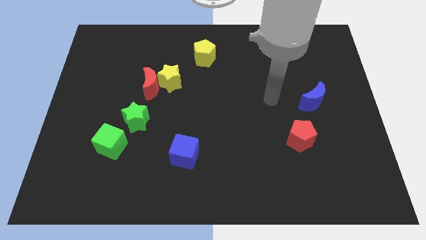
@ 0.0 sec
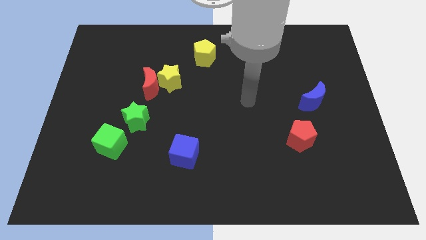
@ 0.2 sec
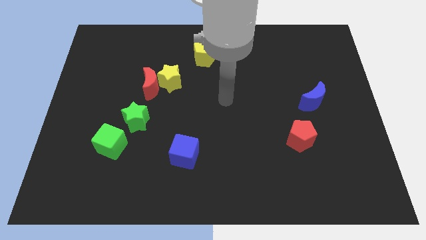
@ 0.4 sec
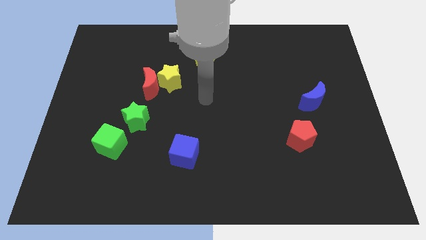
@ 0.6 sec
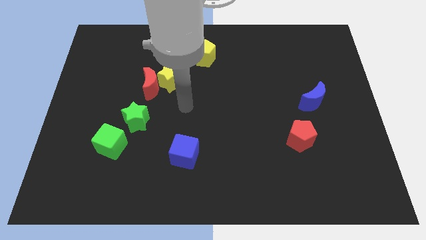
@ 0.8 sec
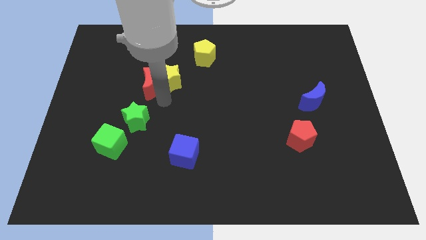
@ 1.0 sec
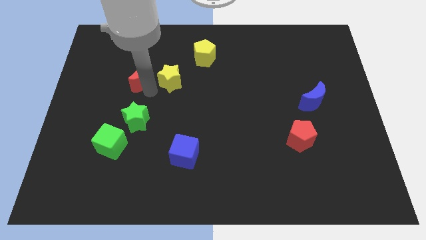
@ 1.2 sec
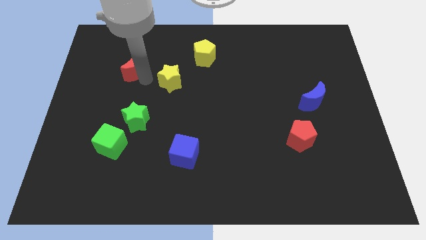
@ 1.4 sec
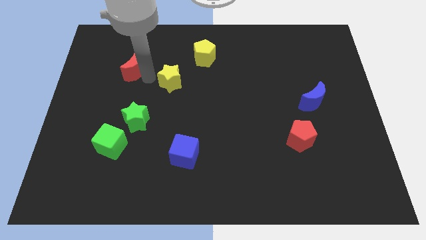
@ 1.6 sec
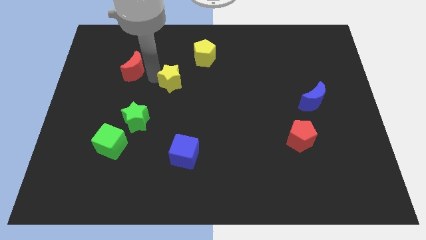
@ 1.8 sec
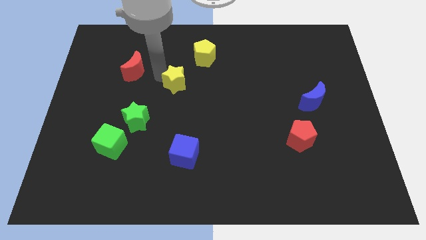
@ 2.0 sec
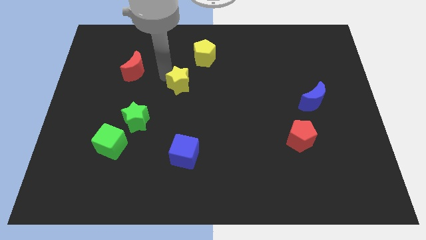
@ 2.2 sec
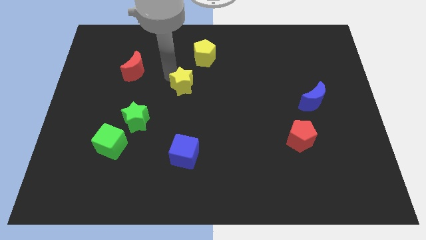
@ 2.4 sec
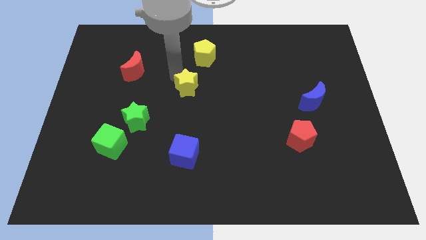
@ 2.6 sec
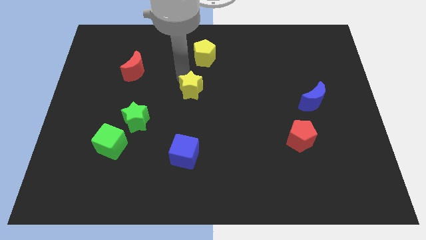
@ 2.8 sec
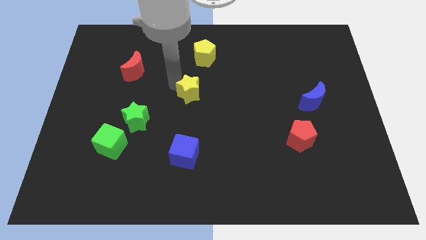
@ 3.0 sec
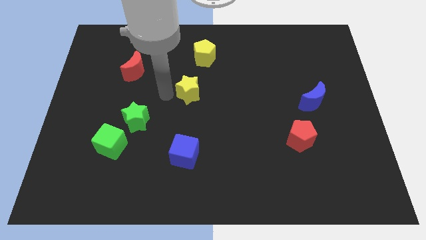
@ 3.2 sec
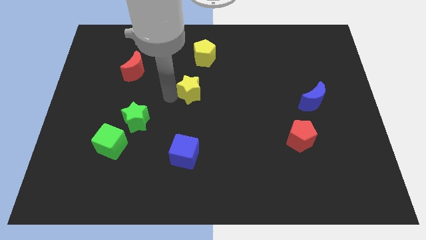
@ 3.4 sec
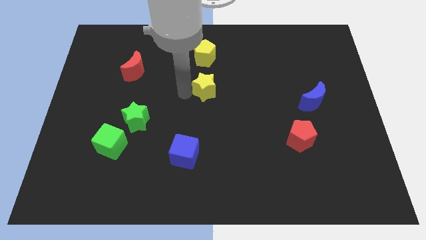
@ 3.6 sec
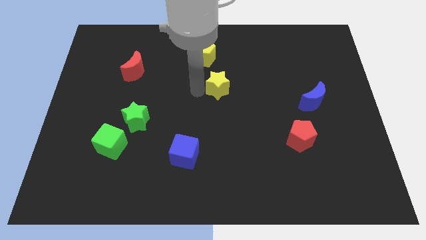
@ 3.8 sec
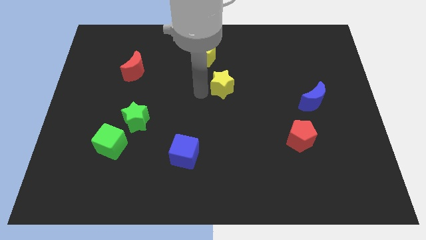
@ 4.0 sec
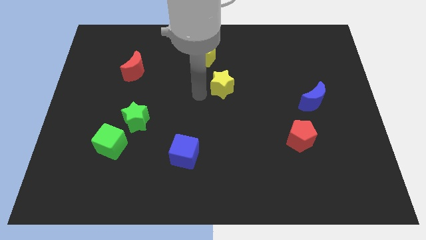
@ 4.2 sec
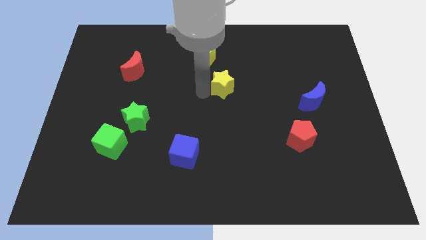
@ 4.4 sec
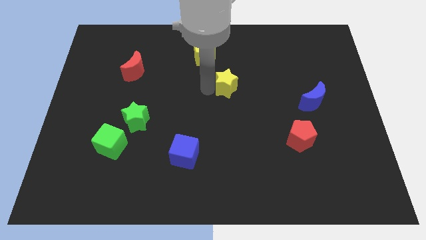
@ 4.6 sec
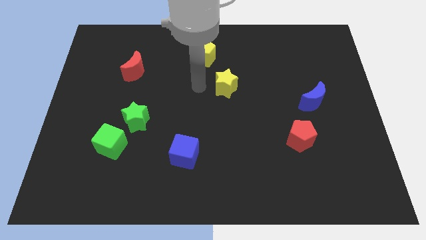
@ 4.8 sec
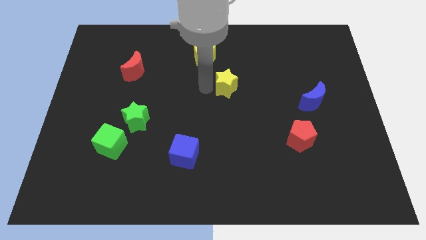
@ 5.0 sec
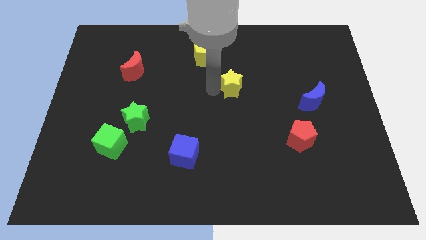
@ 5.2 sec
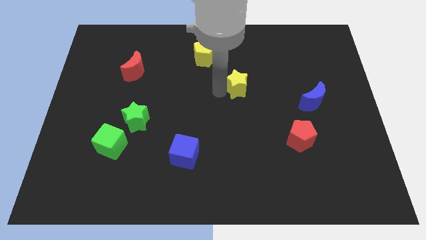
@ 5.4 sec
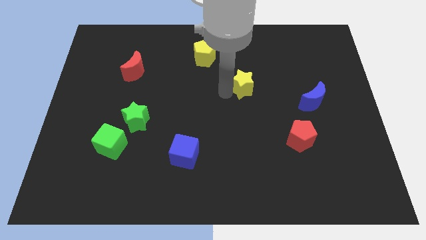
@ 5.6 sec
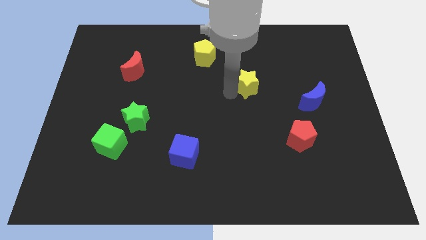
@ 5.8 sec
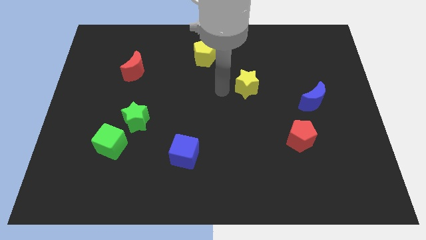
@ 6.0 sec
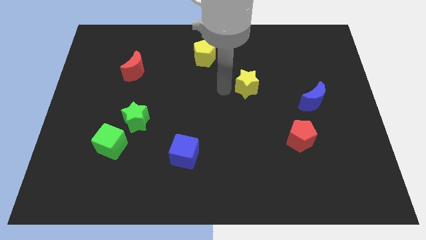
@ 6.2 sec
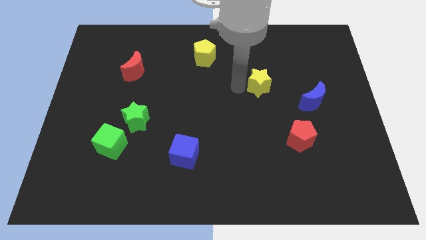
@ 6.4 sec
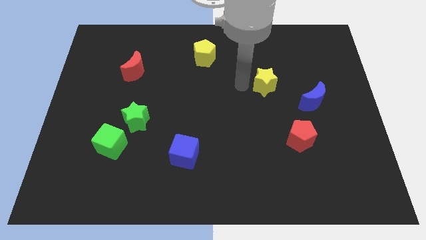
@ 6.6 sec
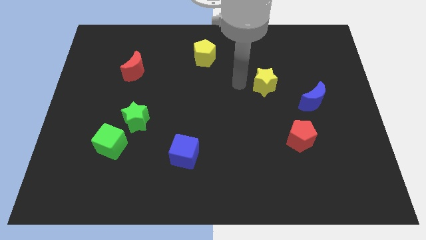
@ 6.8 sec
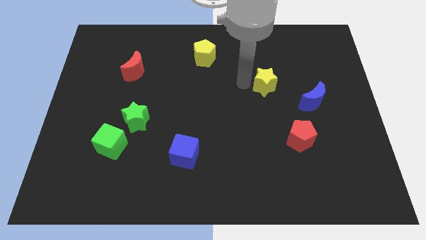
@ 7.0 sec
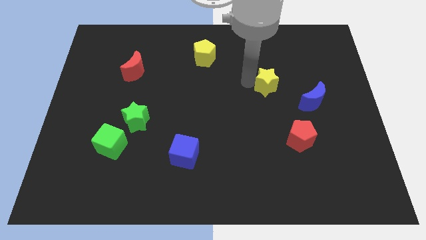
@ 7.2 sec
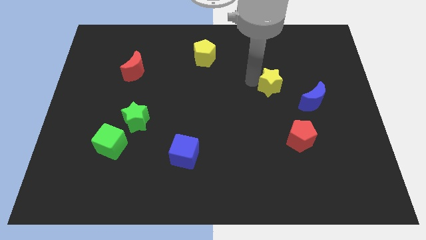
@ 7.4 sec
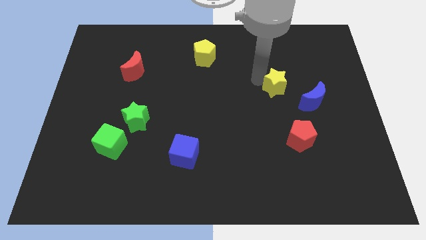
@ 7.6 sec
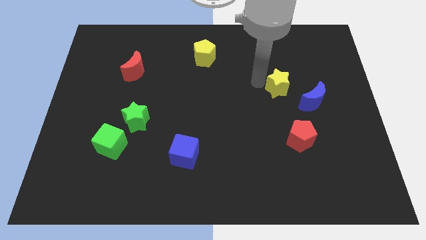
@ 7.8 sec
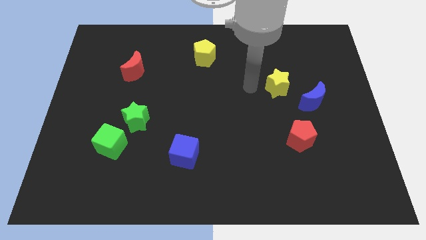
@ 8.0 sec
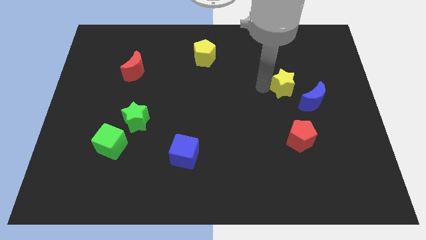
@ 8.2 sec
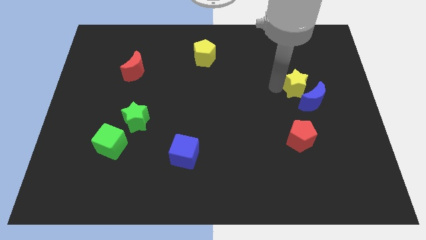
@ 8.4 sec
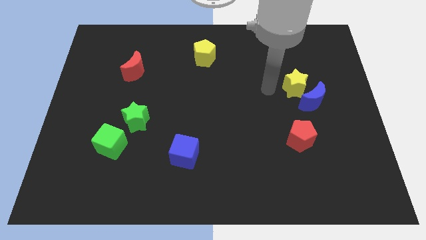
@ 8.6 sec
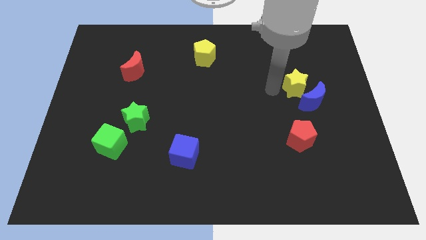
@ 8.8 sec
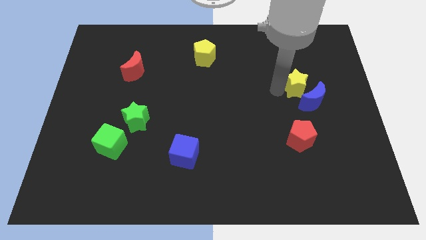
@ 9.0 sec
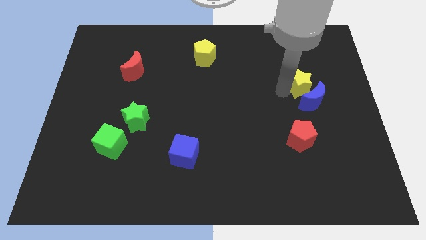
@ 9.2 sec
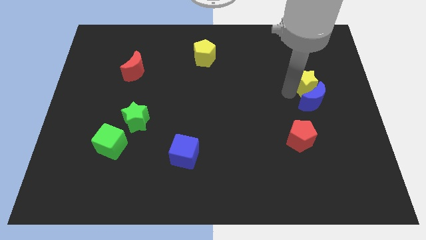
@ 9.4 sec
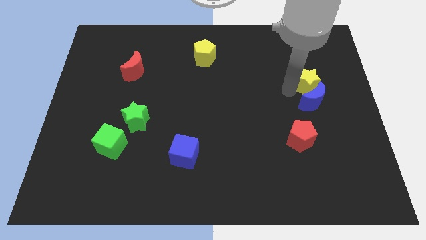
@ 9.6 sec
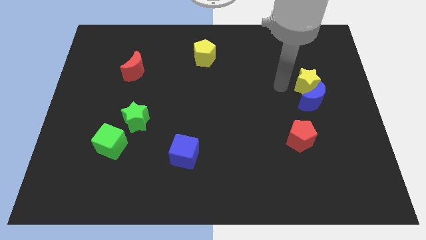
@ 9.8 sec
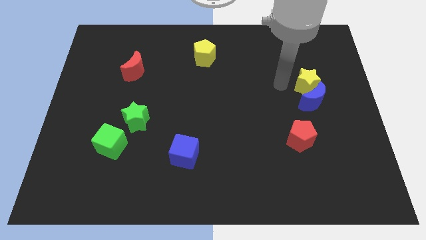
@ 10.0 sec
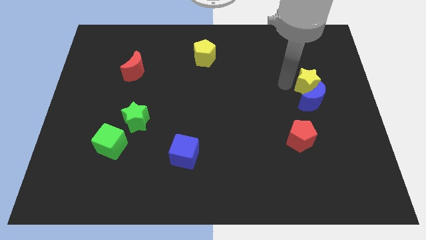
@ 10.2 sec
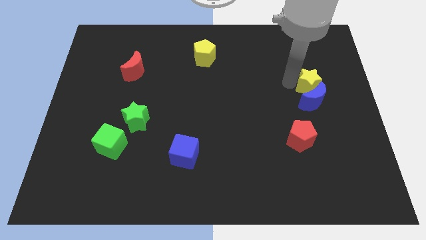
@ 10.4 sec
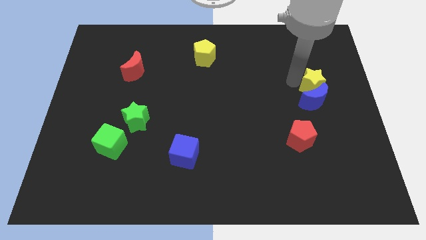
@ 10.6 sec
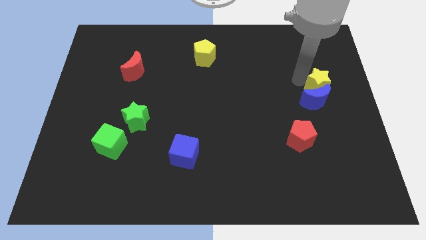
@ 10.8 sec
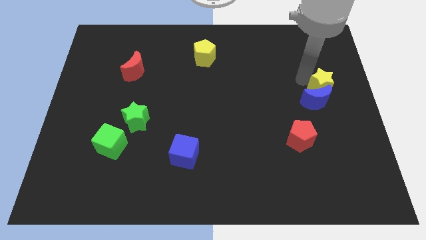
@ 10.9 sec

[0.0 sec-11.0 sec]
slide the yellow star to the center right

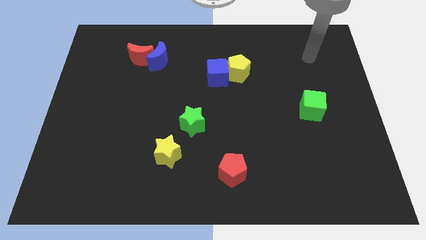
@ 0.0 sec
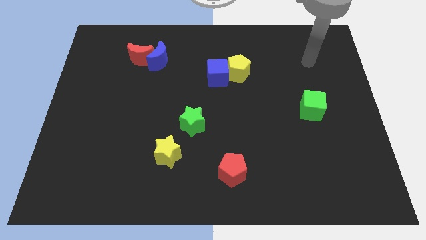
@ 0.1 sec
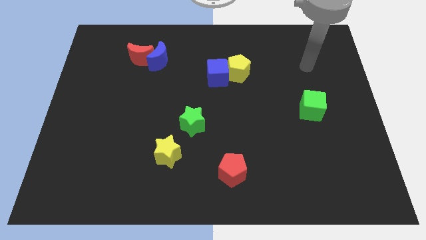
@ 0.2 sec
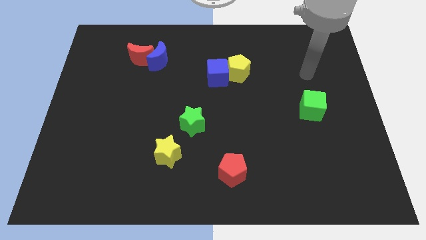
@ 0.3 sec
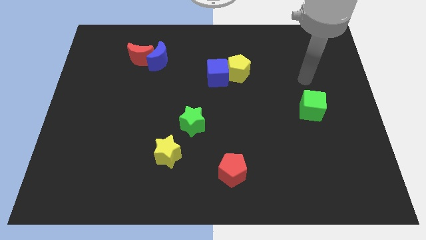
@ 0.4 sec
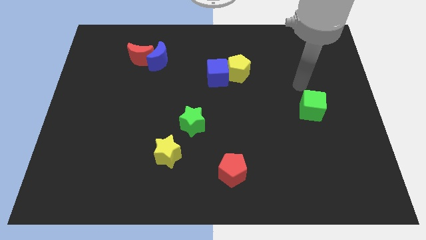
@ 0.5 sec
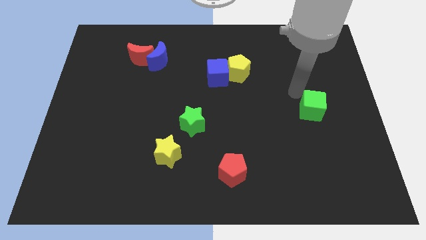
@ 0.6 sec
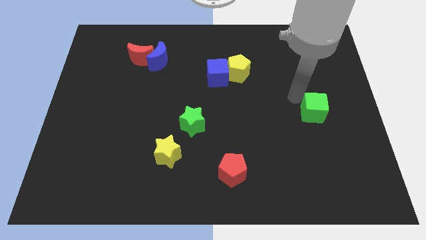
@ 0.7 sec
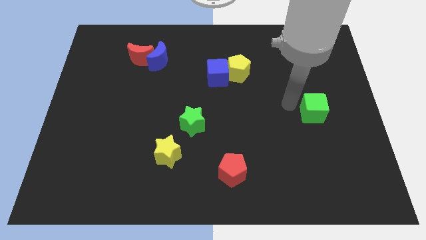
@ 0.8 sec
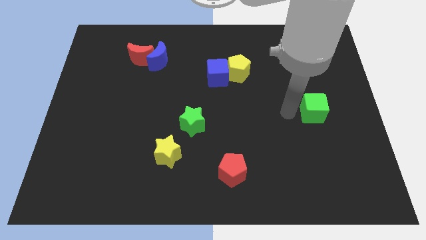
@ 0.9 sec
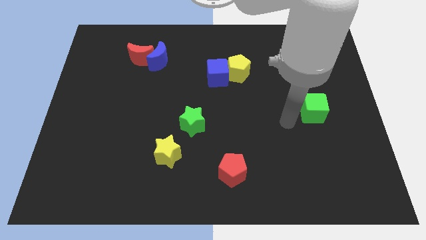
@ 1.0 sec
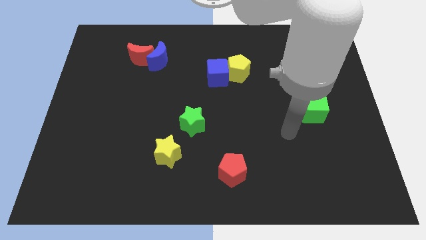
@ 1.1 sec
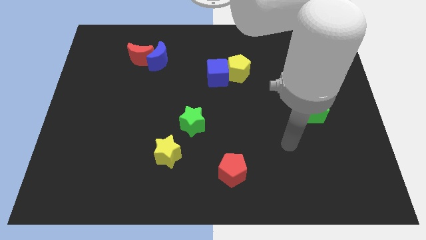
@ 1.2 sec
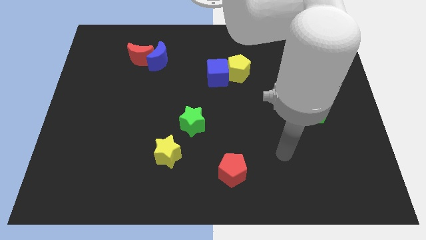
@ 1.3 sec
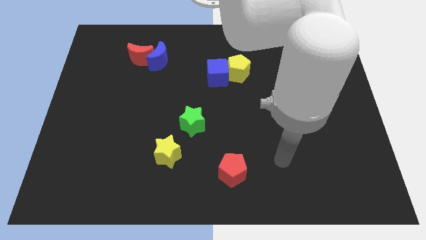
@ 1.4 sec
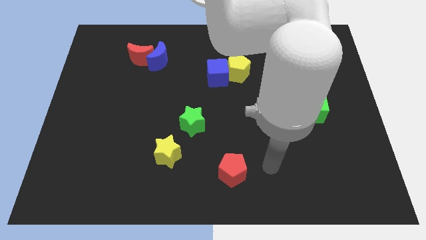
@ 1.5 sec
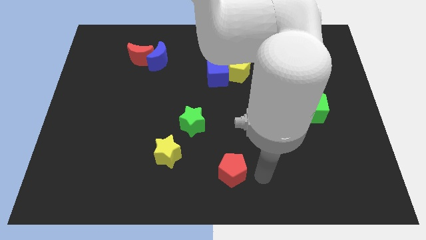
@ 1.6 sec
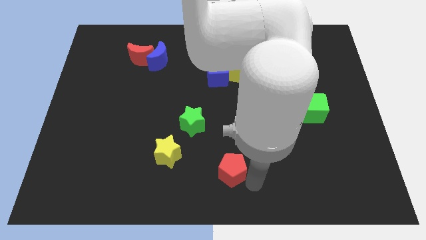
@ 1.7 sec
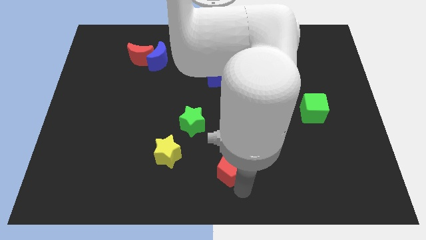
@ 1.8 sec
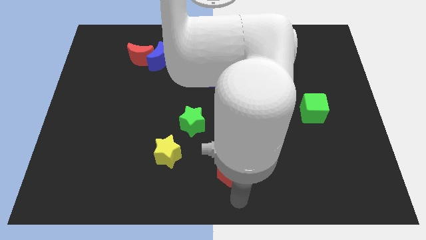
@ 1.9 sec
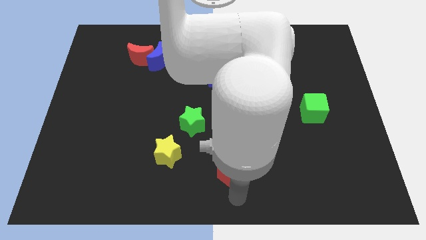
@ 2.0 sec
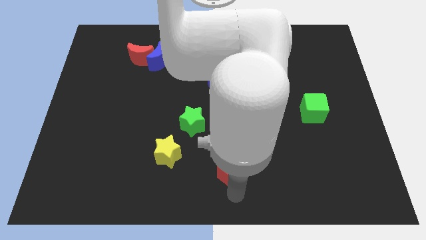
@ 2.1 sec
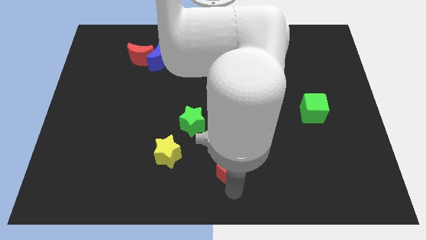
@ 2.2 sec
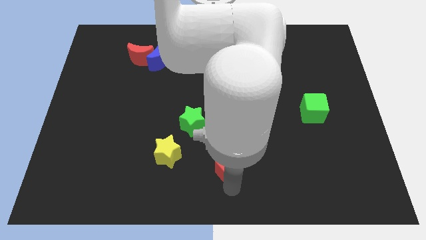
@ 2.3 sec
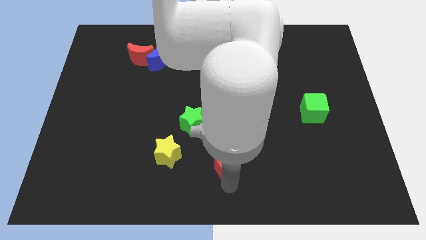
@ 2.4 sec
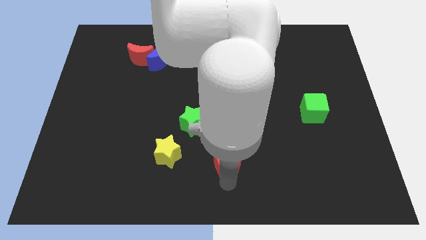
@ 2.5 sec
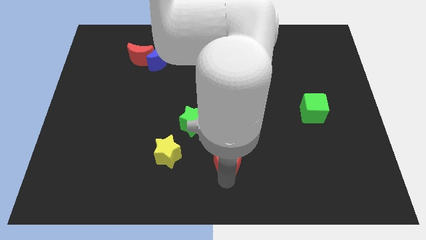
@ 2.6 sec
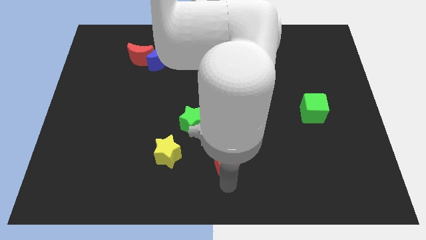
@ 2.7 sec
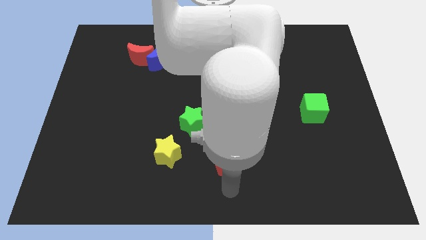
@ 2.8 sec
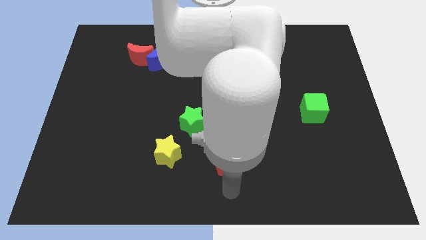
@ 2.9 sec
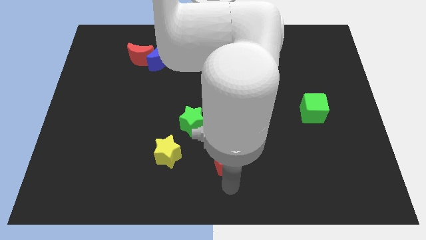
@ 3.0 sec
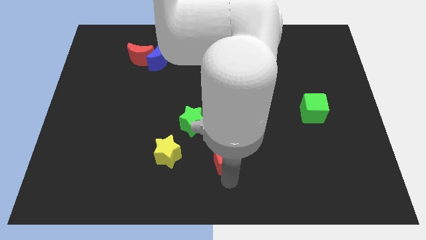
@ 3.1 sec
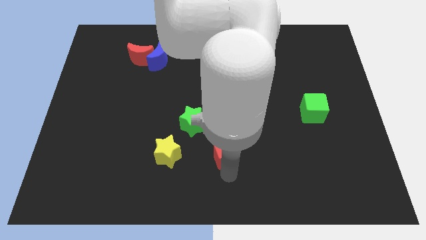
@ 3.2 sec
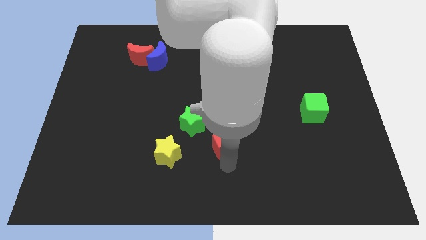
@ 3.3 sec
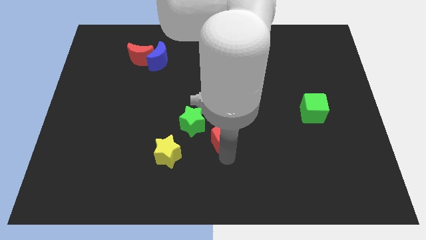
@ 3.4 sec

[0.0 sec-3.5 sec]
move the red pentagon to the middle of the board
